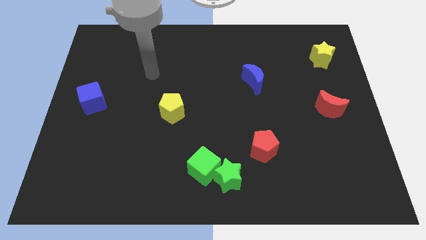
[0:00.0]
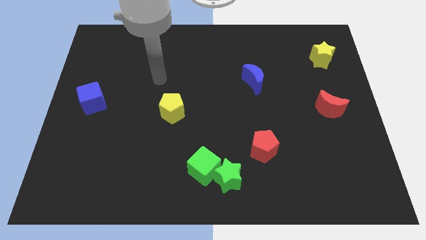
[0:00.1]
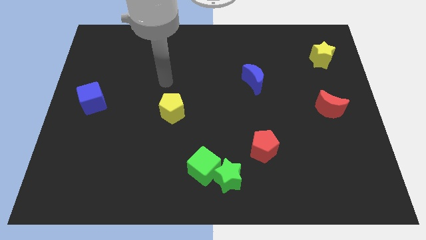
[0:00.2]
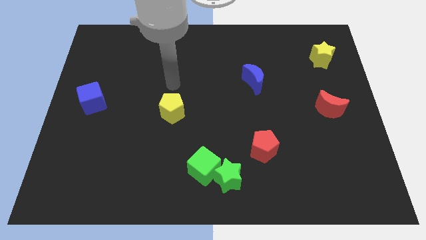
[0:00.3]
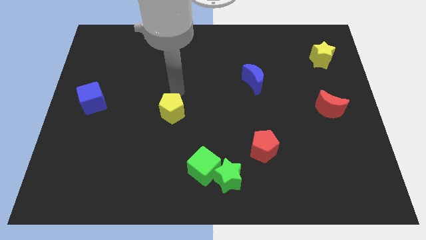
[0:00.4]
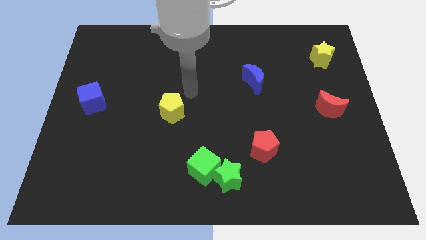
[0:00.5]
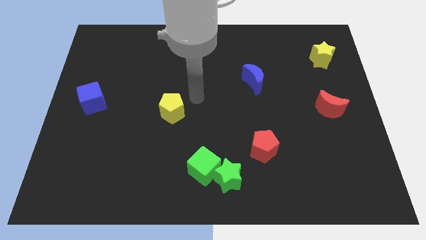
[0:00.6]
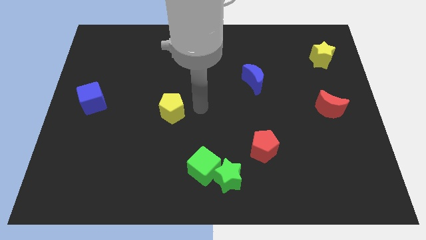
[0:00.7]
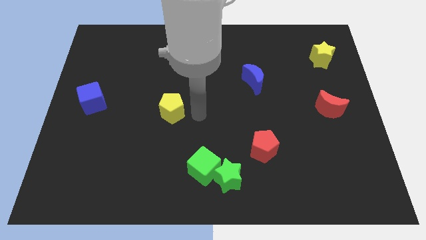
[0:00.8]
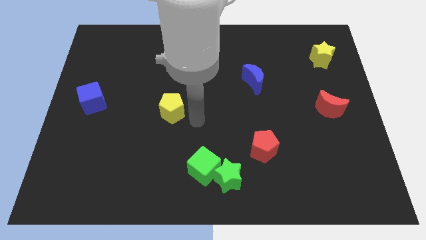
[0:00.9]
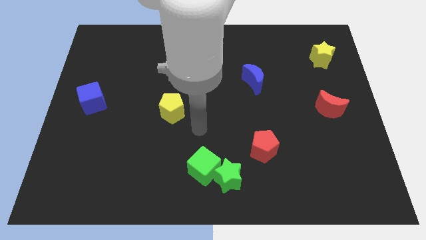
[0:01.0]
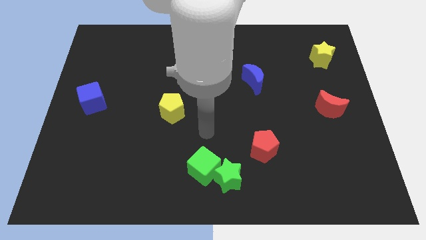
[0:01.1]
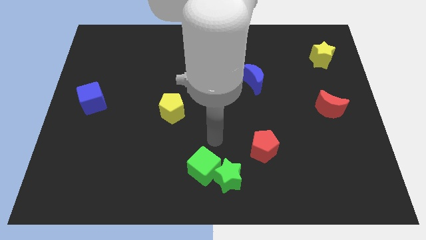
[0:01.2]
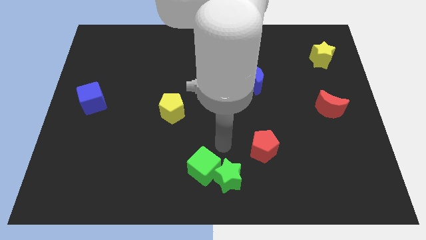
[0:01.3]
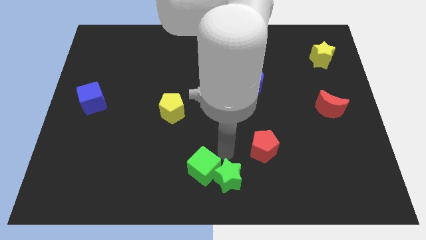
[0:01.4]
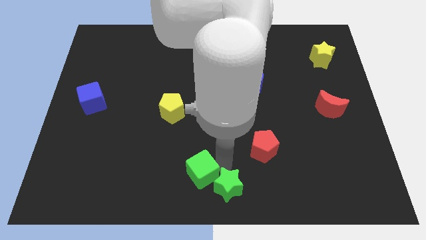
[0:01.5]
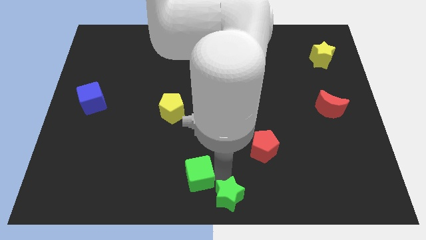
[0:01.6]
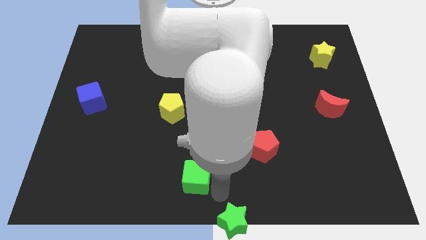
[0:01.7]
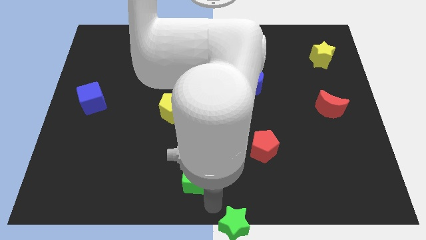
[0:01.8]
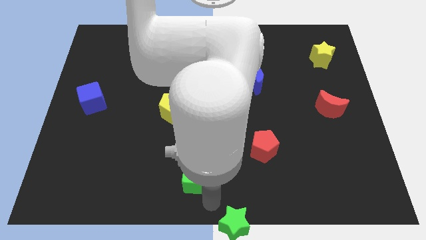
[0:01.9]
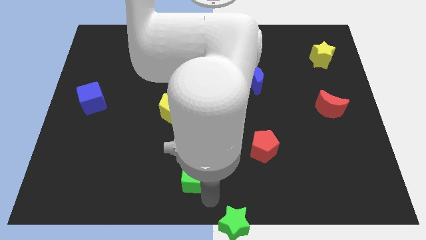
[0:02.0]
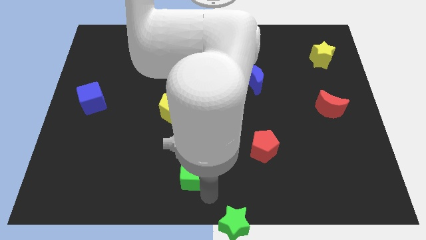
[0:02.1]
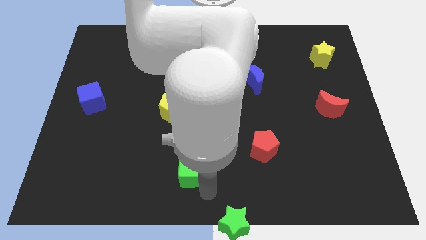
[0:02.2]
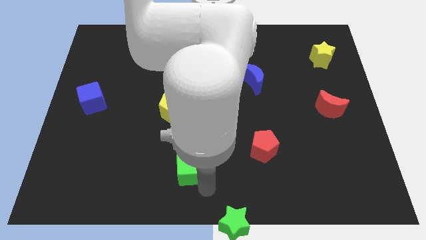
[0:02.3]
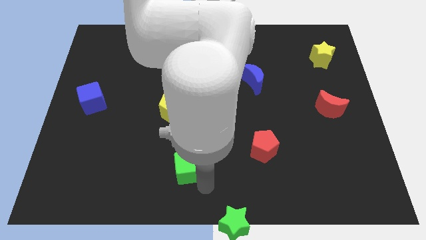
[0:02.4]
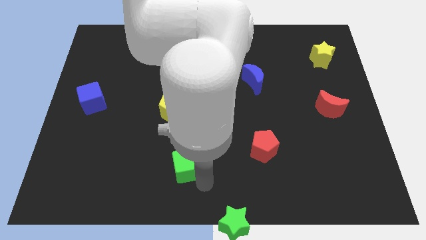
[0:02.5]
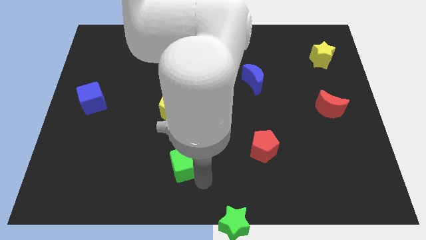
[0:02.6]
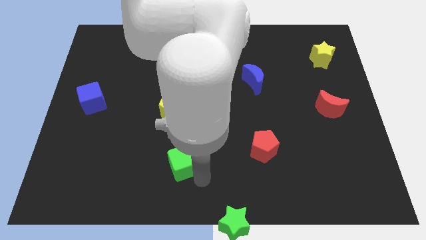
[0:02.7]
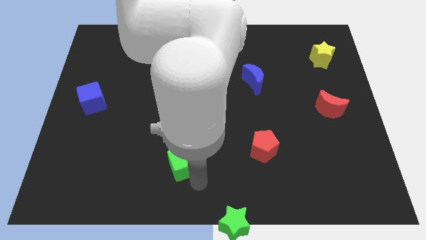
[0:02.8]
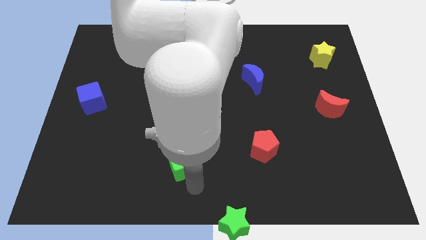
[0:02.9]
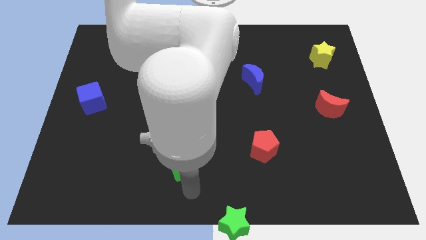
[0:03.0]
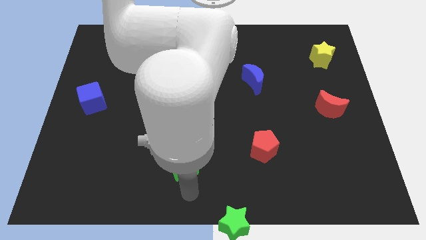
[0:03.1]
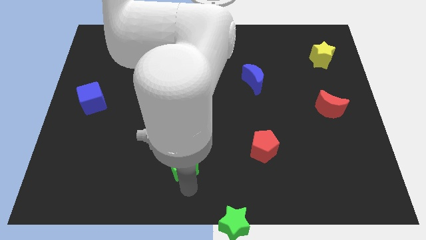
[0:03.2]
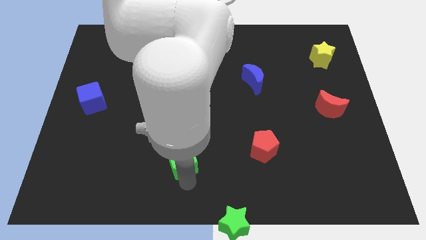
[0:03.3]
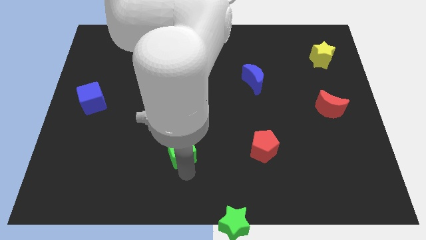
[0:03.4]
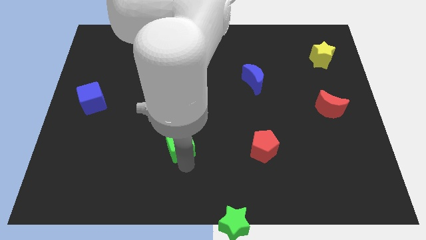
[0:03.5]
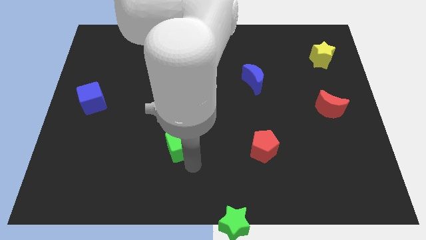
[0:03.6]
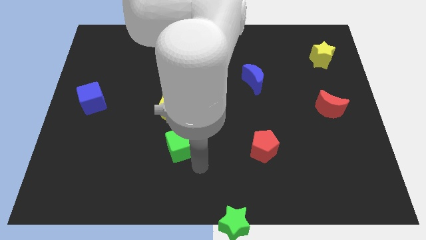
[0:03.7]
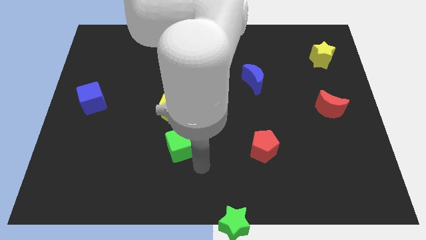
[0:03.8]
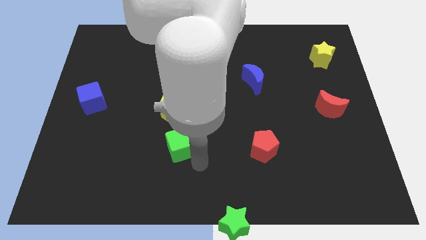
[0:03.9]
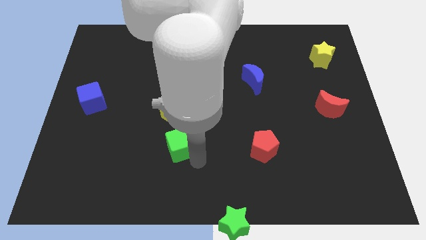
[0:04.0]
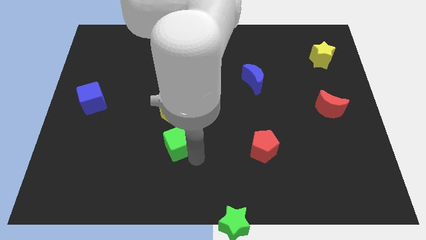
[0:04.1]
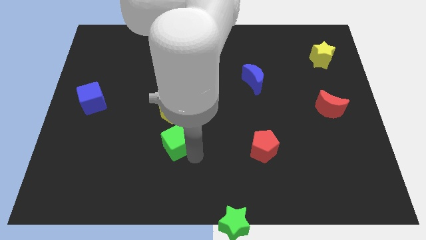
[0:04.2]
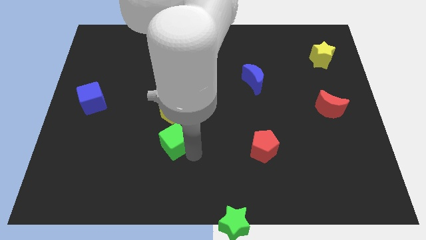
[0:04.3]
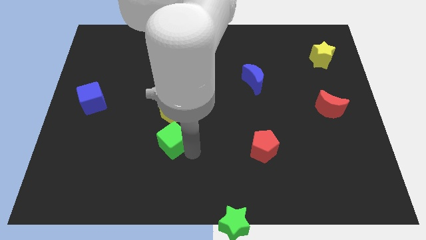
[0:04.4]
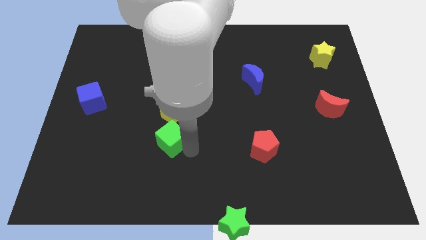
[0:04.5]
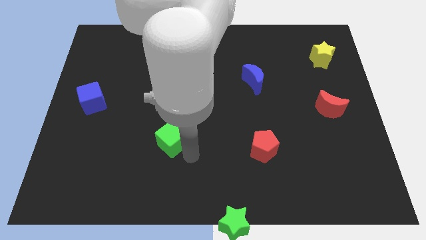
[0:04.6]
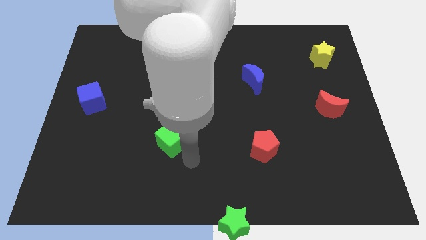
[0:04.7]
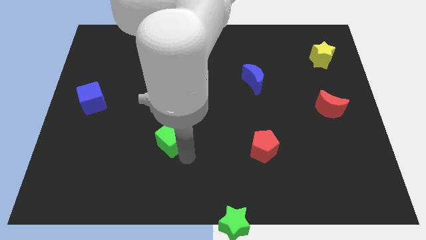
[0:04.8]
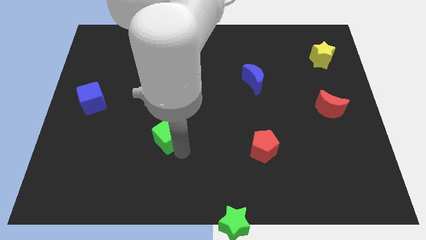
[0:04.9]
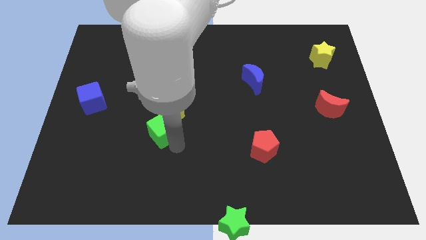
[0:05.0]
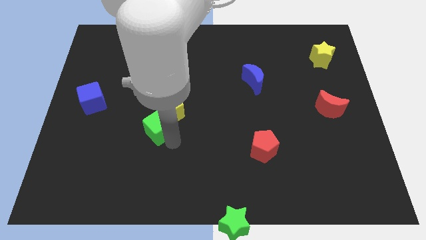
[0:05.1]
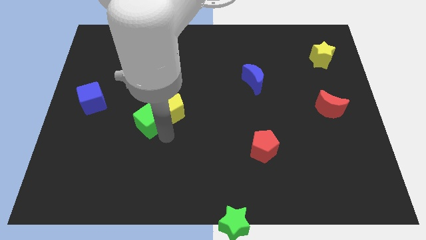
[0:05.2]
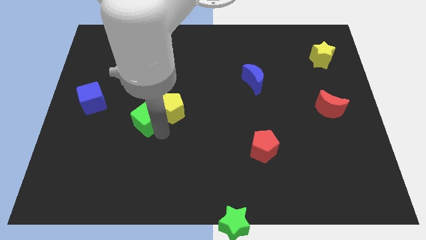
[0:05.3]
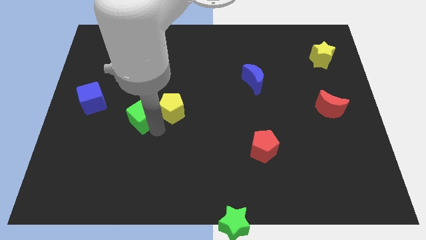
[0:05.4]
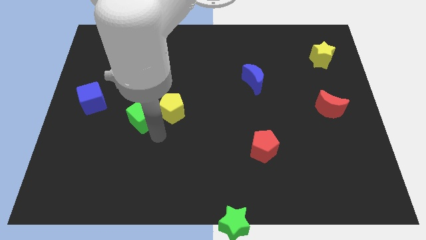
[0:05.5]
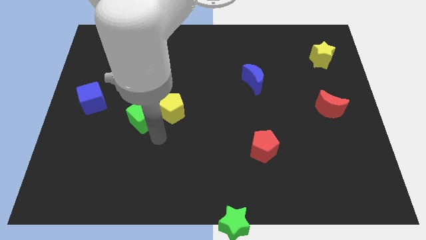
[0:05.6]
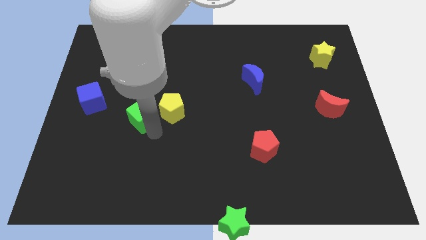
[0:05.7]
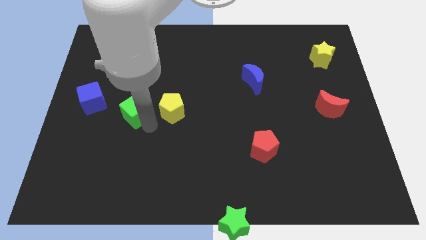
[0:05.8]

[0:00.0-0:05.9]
move the green cube up and to the left diagonally

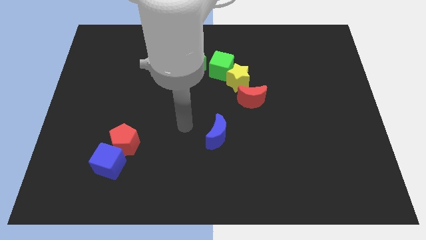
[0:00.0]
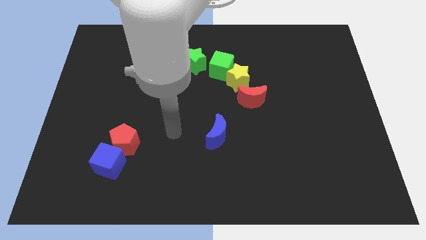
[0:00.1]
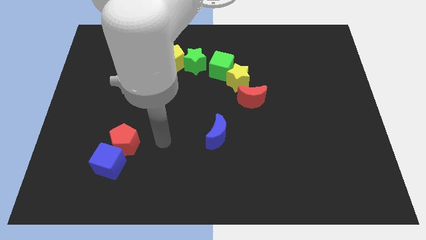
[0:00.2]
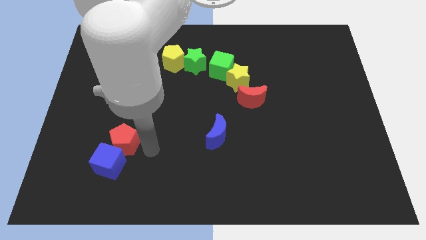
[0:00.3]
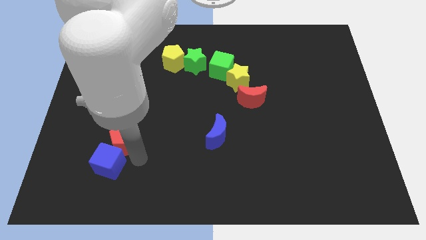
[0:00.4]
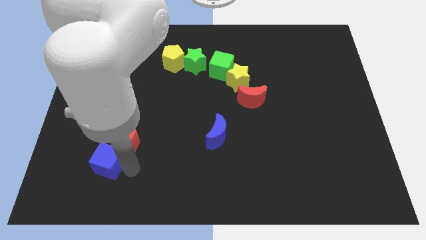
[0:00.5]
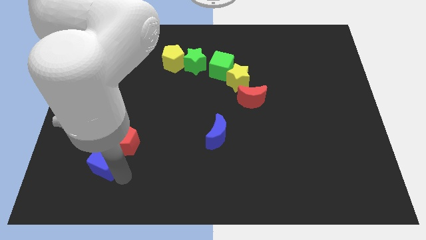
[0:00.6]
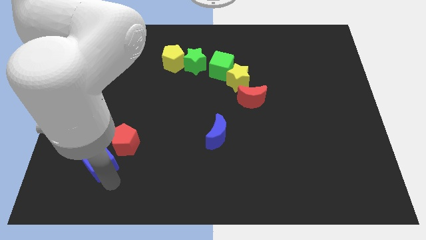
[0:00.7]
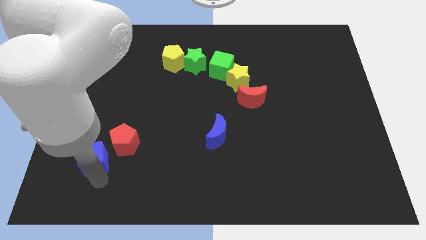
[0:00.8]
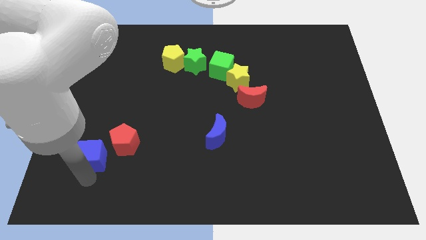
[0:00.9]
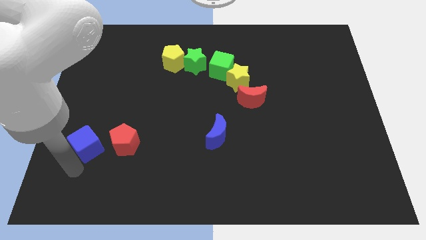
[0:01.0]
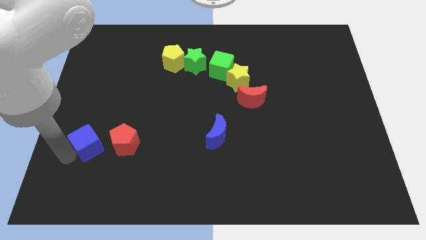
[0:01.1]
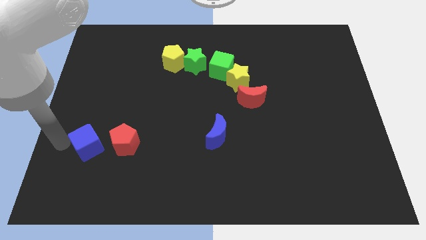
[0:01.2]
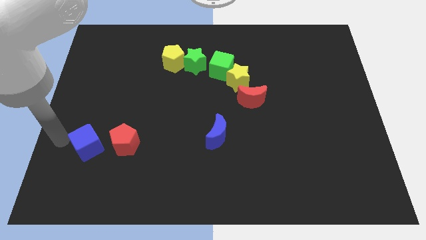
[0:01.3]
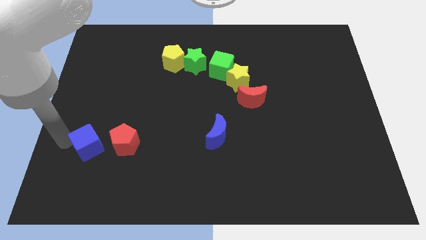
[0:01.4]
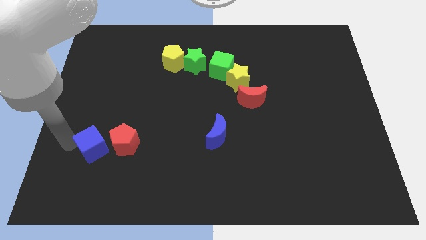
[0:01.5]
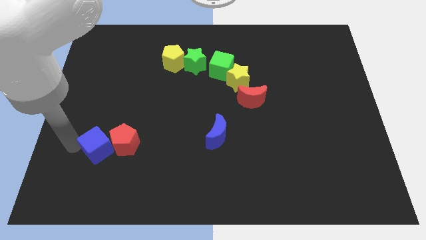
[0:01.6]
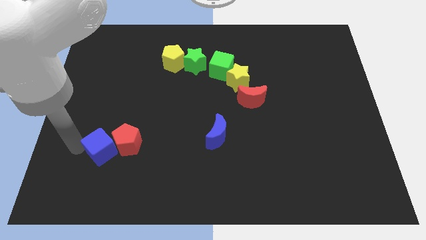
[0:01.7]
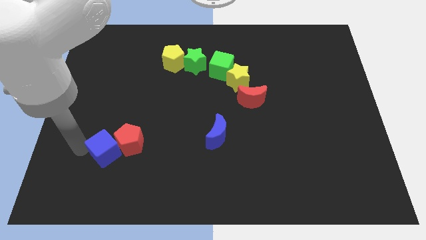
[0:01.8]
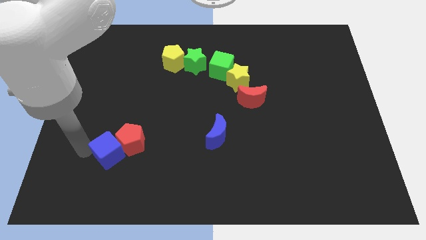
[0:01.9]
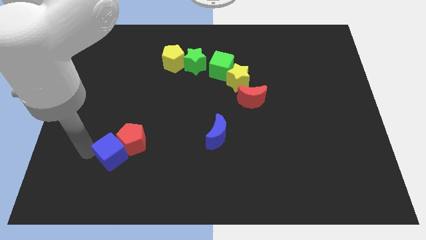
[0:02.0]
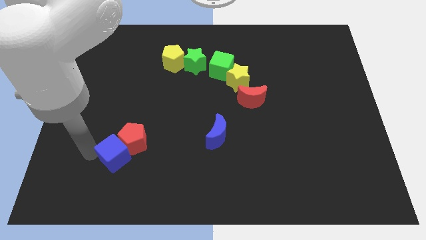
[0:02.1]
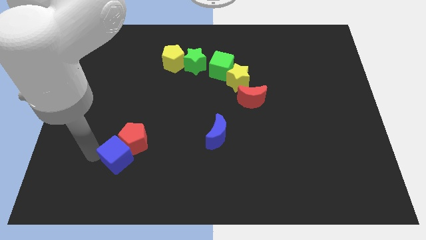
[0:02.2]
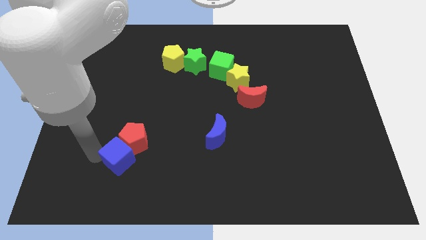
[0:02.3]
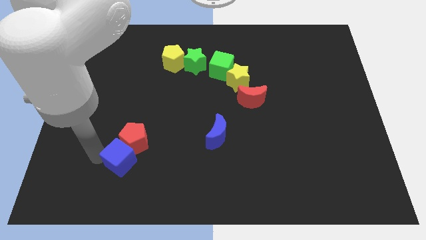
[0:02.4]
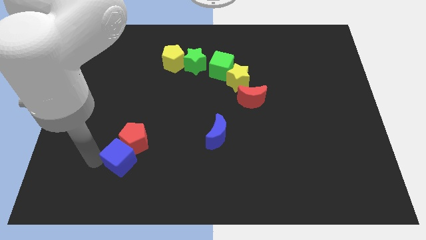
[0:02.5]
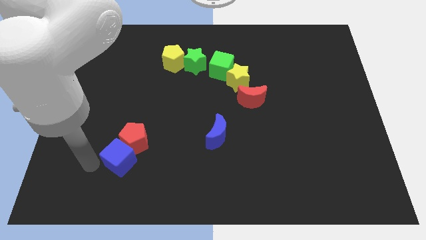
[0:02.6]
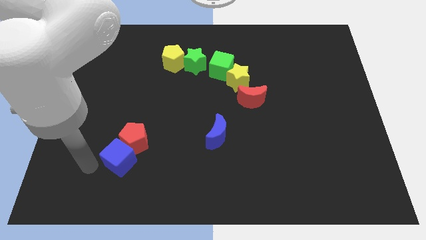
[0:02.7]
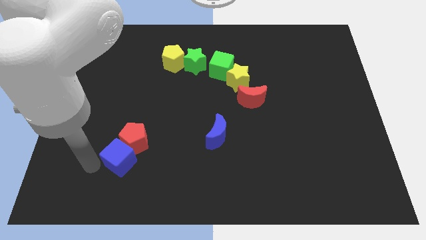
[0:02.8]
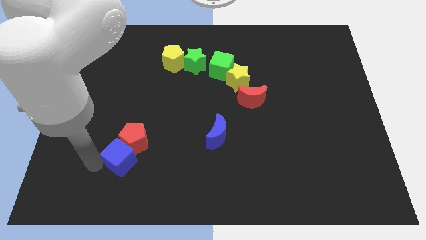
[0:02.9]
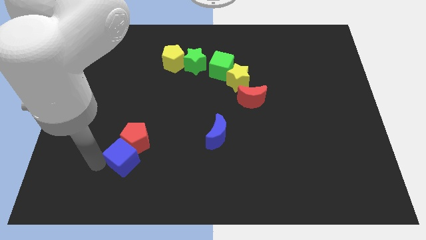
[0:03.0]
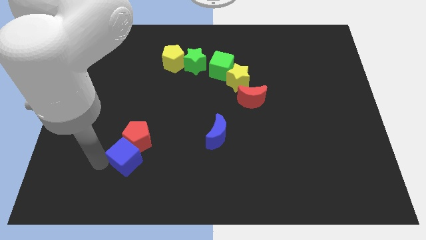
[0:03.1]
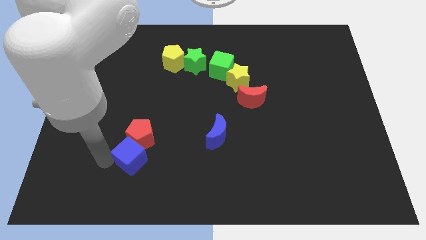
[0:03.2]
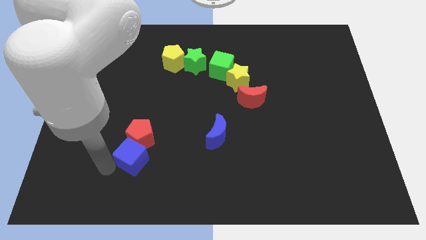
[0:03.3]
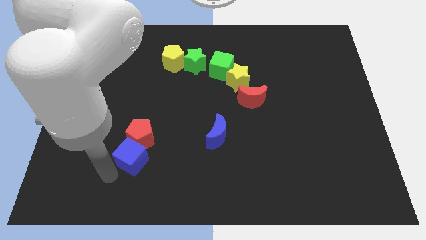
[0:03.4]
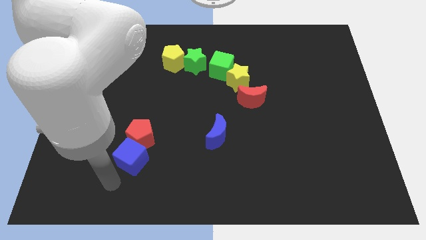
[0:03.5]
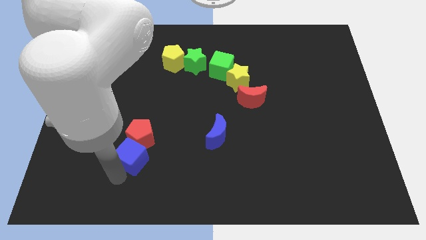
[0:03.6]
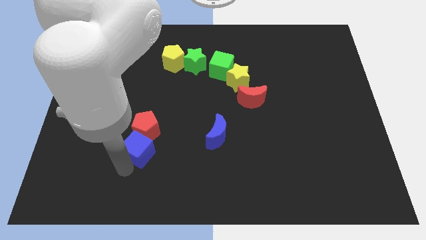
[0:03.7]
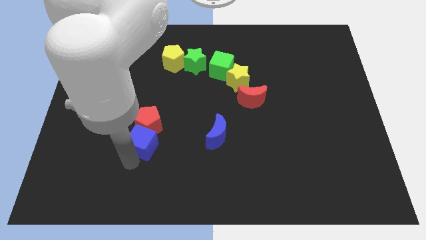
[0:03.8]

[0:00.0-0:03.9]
slightly push the blue cube up and then right
